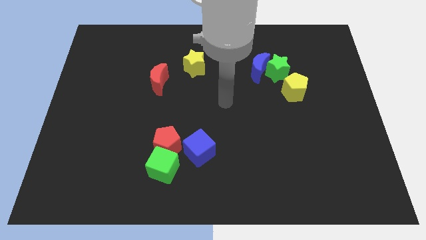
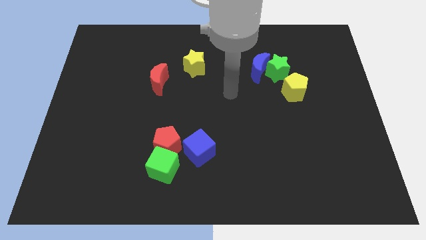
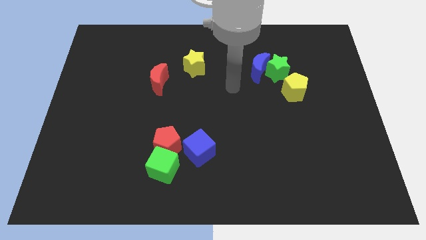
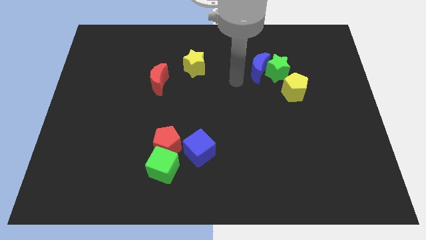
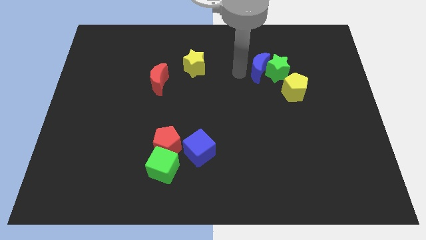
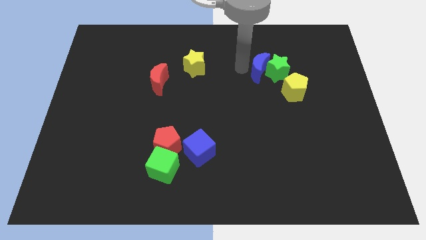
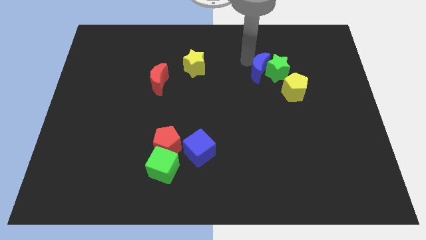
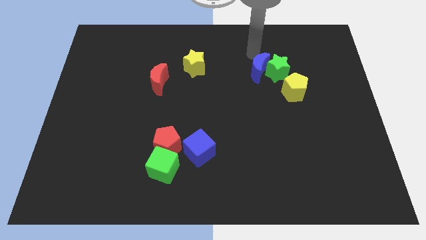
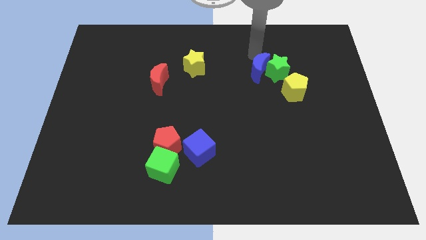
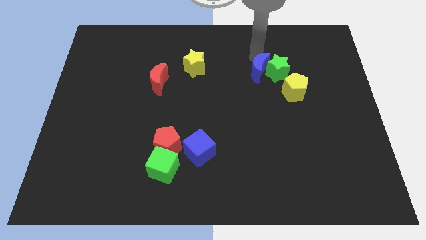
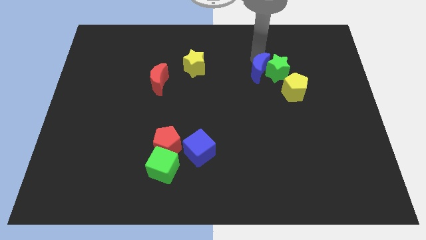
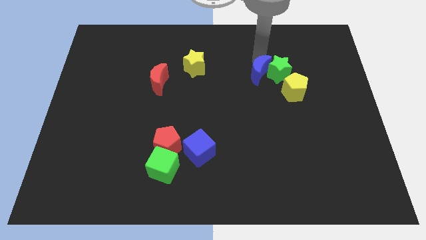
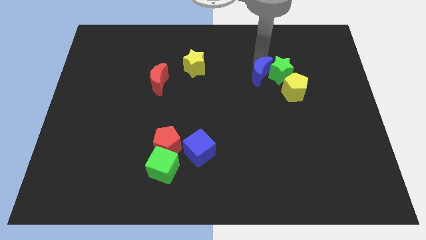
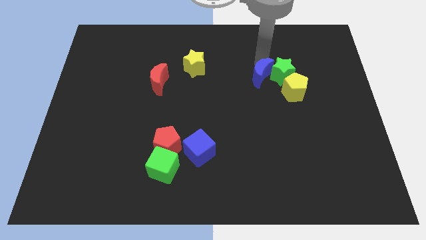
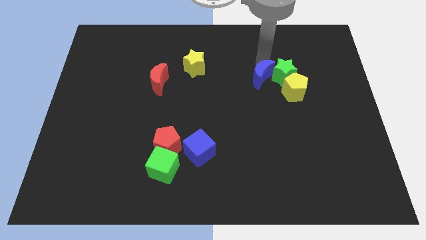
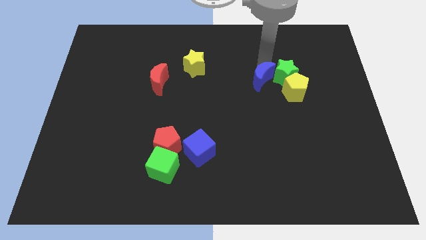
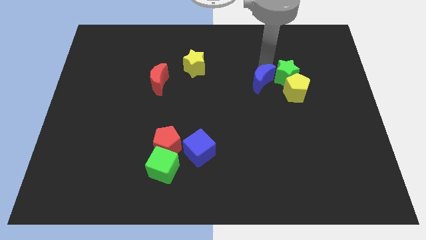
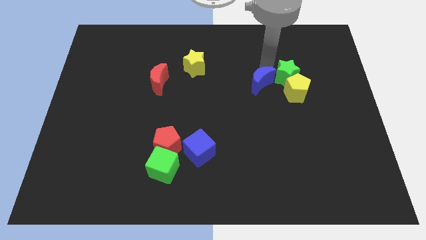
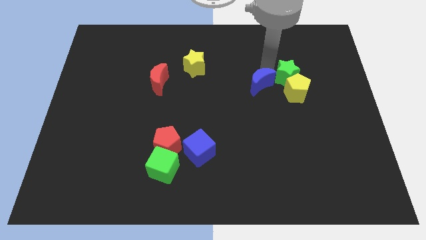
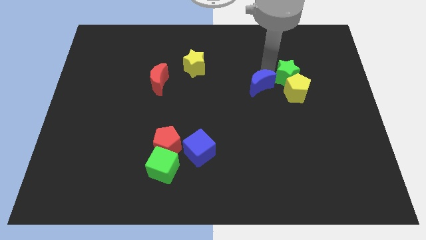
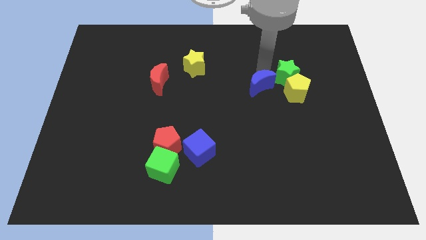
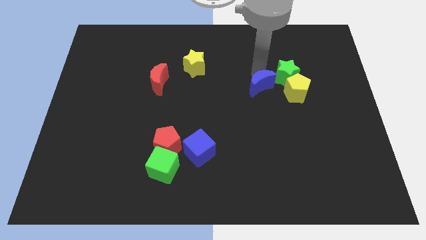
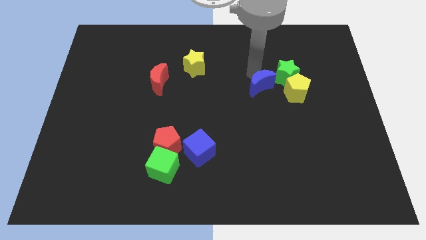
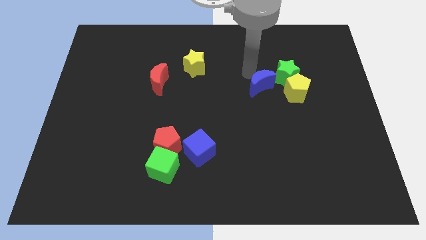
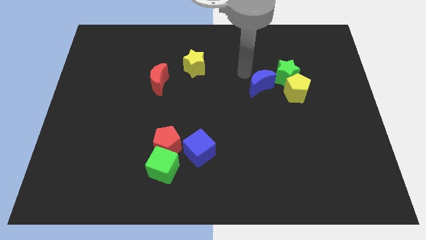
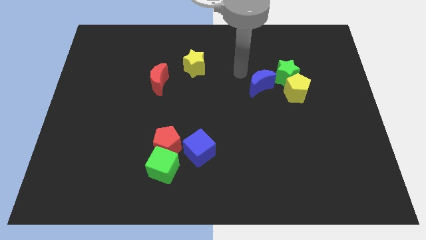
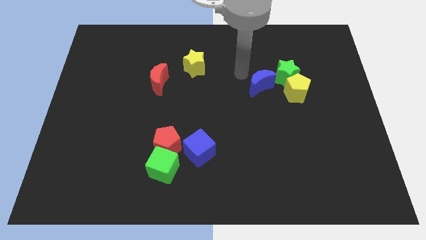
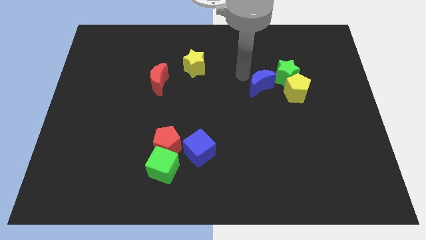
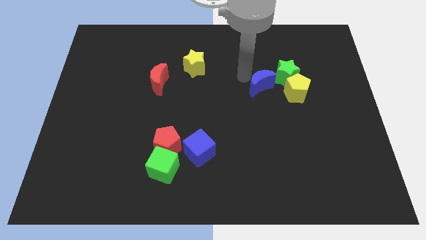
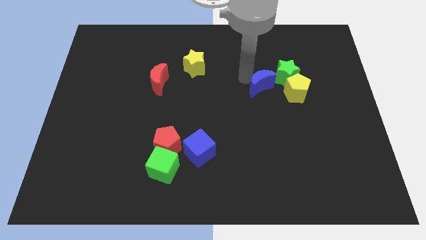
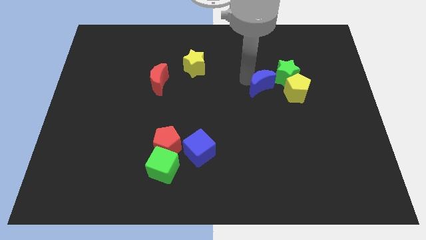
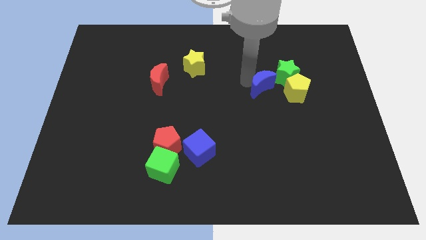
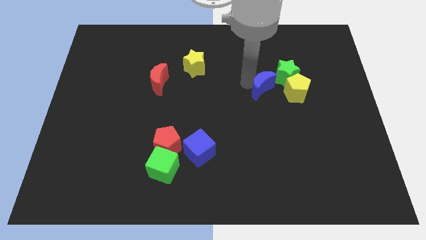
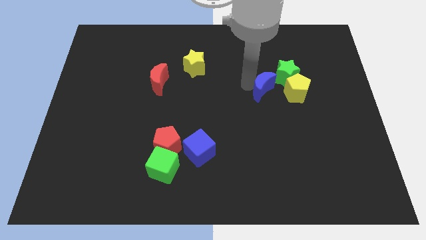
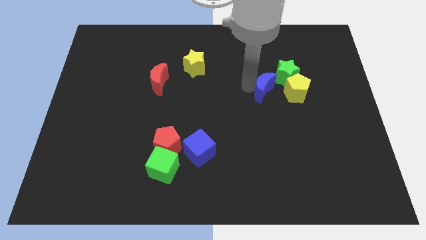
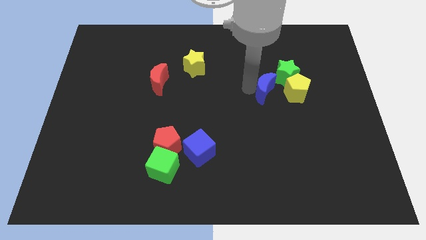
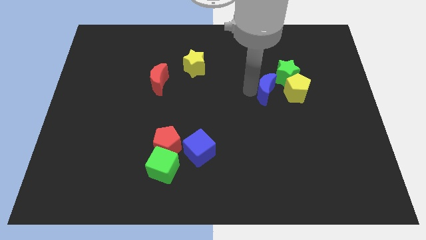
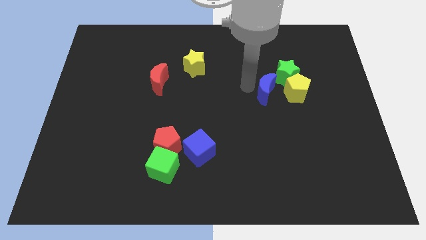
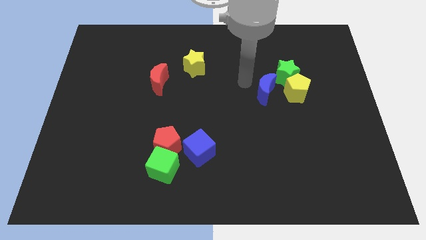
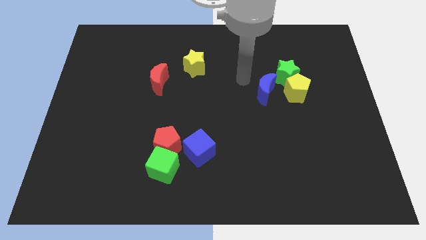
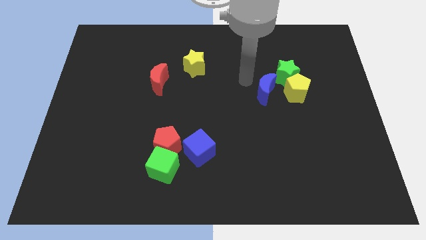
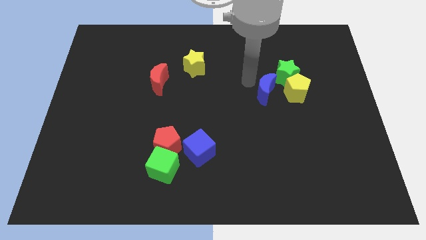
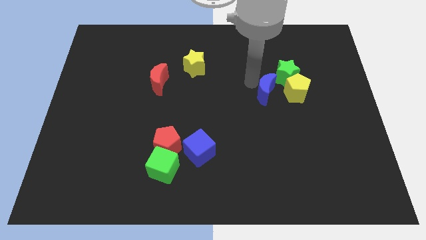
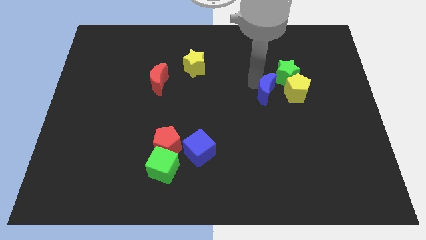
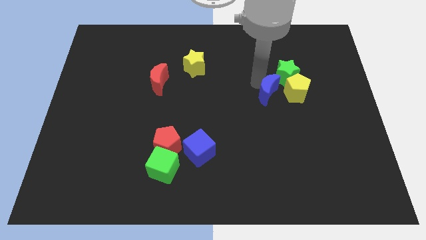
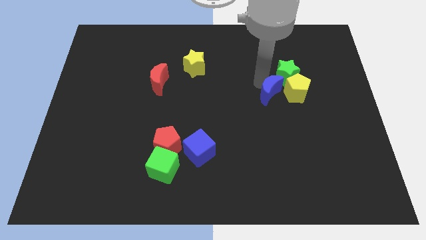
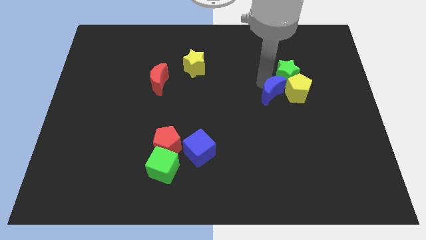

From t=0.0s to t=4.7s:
slightly slide the blue moon down and right

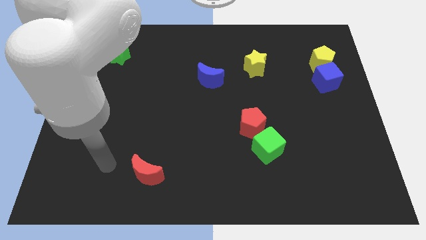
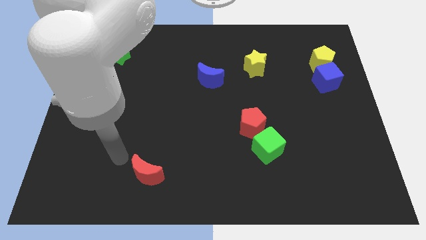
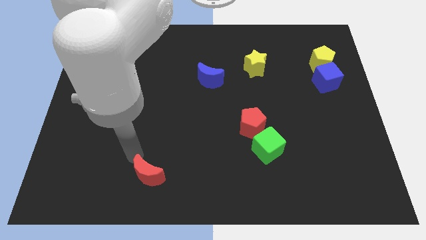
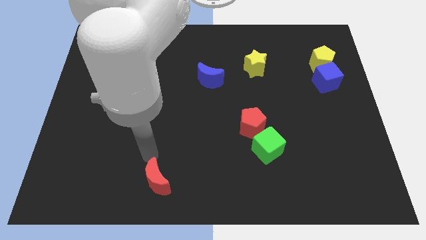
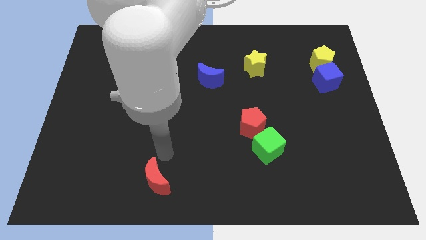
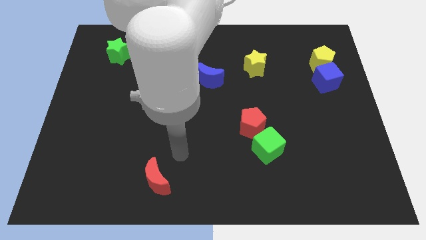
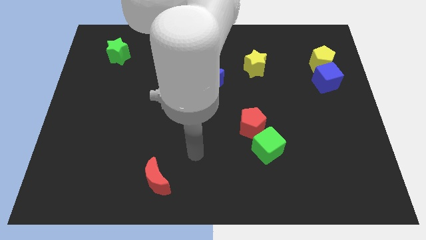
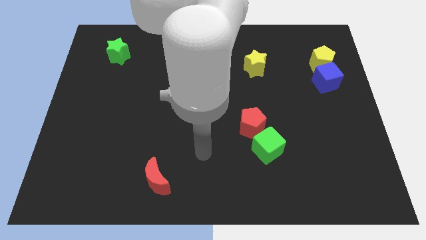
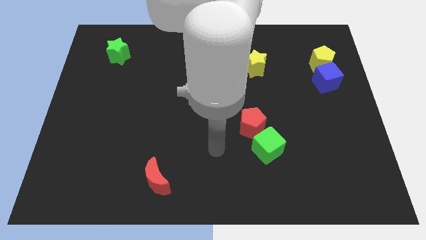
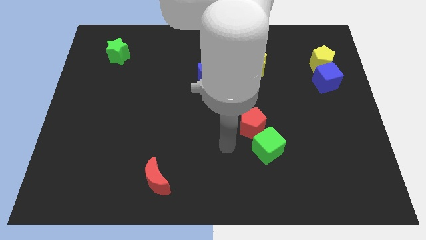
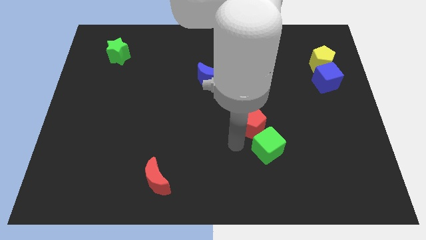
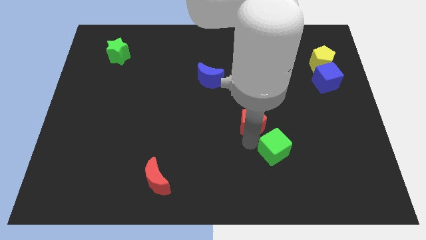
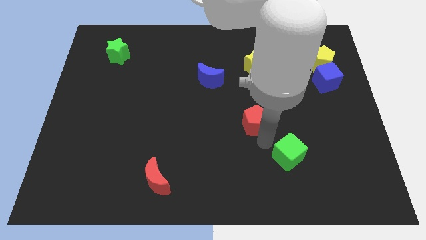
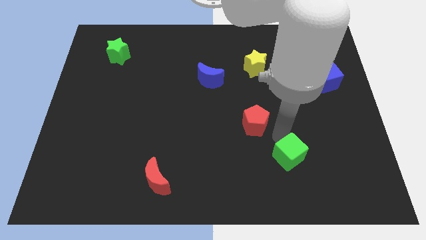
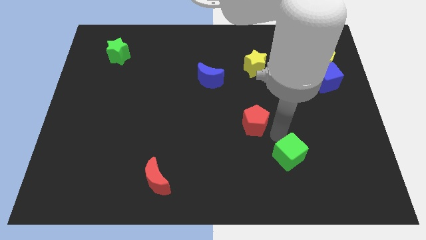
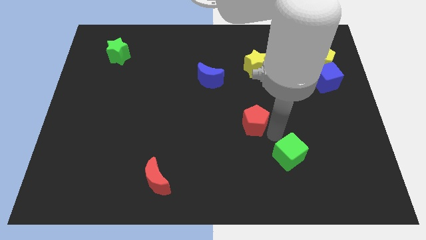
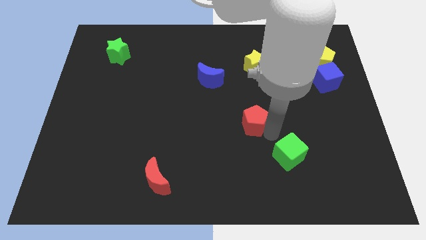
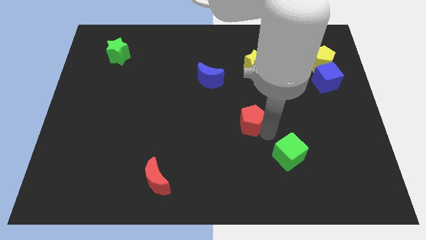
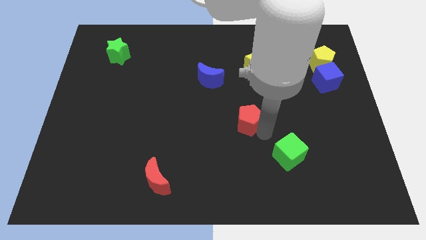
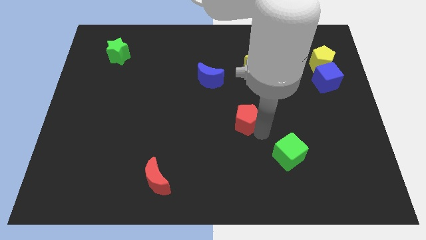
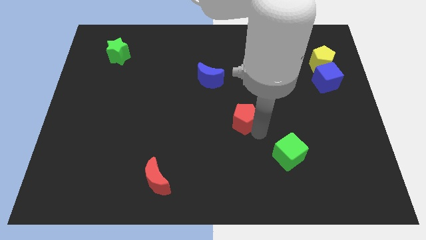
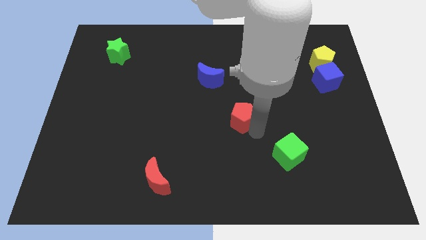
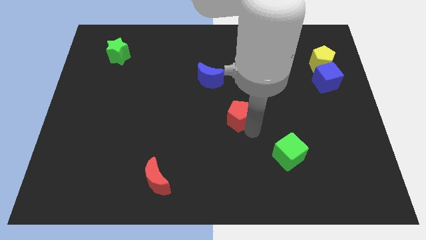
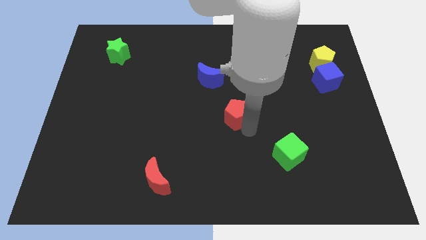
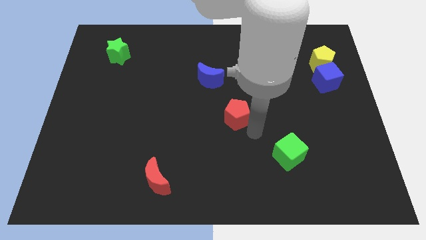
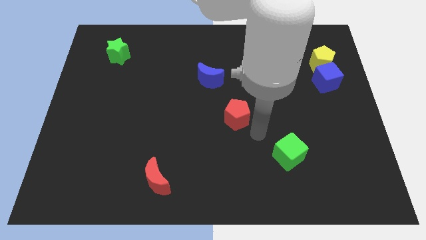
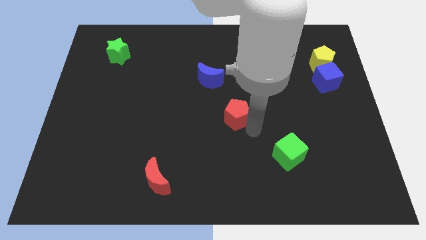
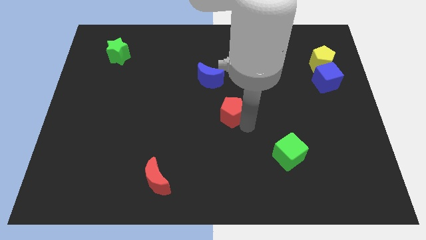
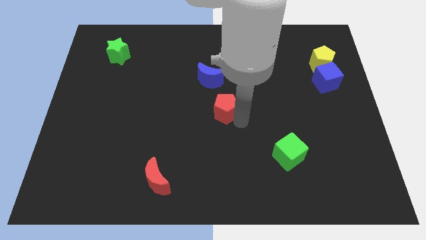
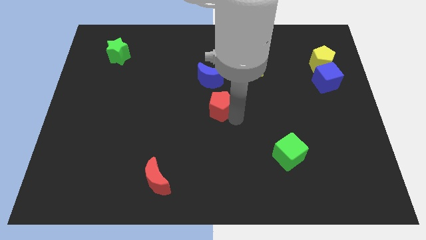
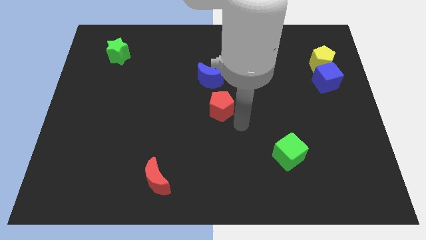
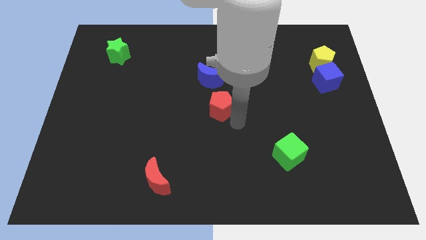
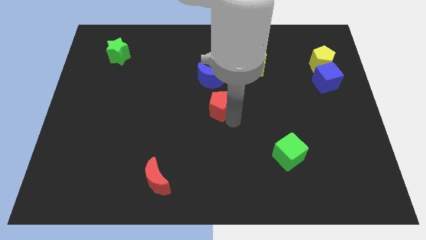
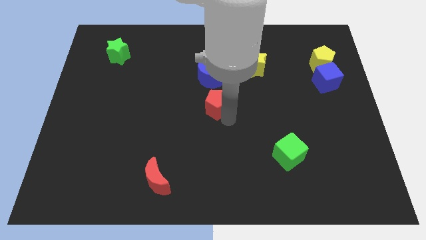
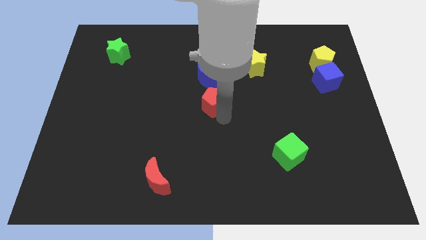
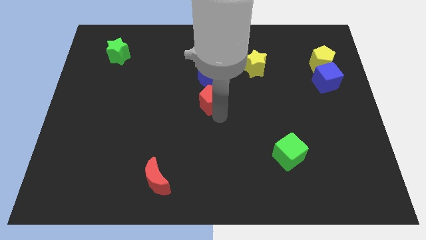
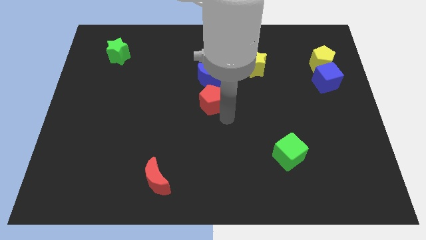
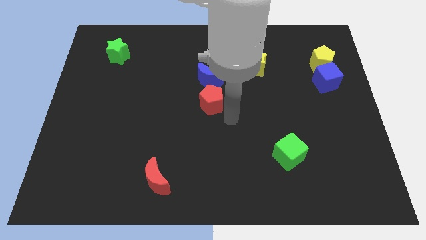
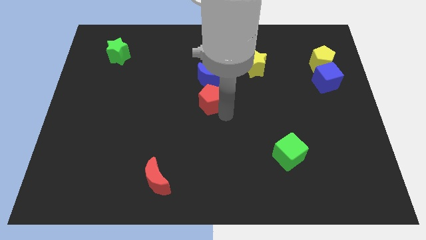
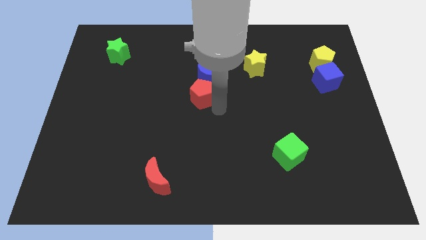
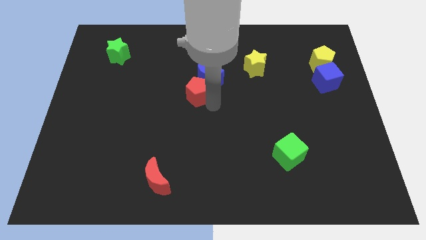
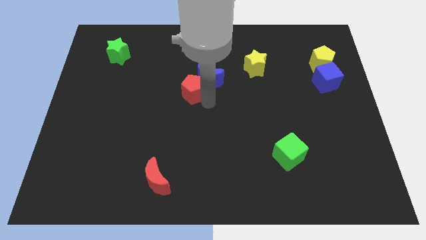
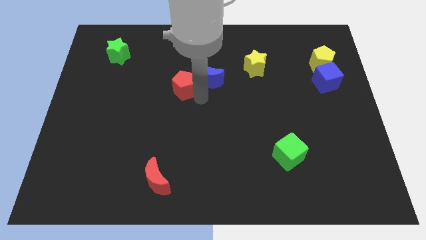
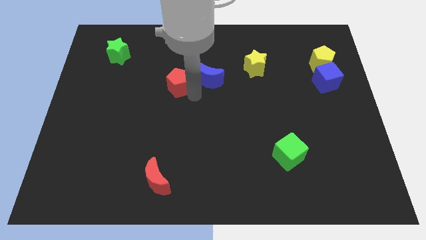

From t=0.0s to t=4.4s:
slide the red pentagon diagonally up and to the left
